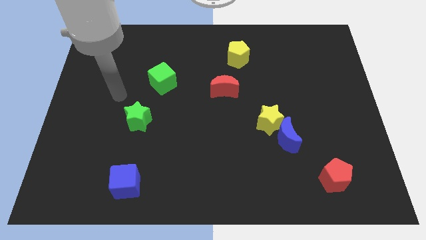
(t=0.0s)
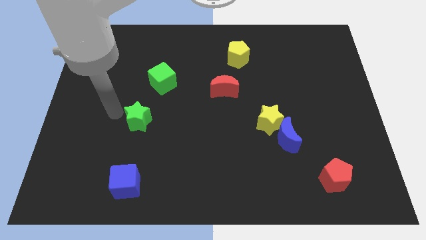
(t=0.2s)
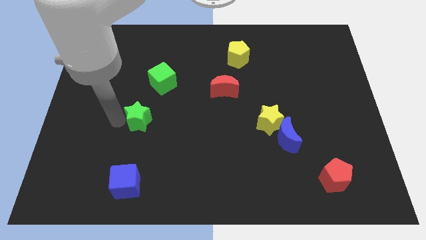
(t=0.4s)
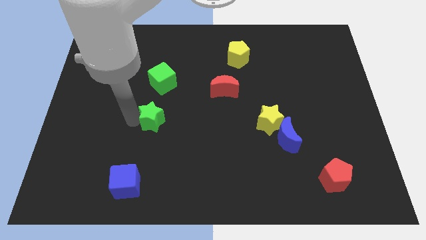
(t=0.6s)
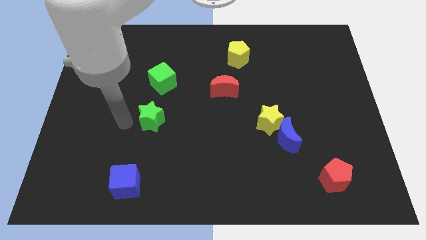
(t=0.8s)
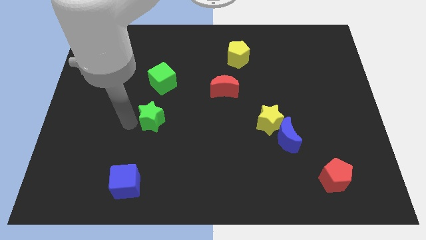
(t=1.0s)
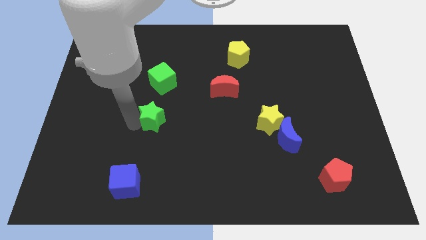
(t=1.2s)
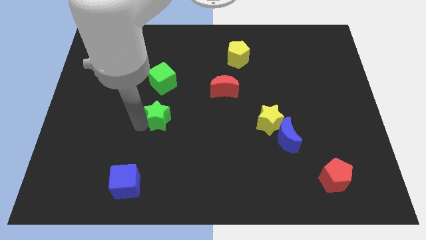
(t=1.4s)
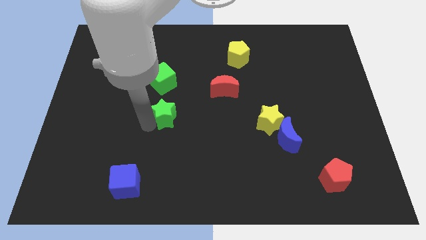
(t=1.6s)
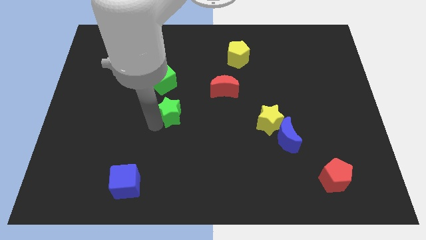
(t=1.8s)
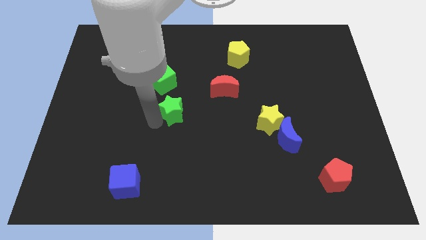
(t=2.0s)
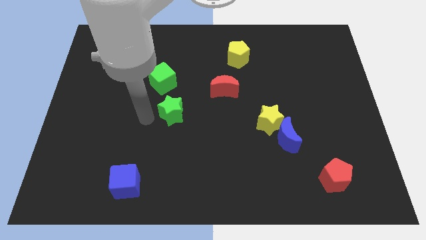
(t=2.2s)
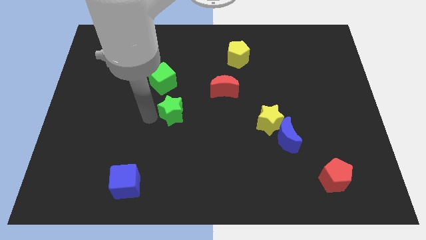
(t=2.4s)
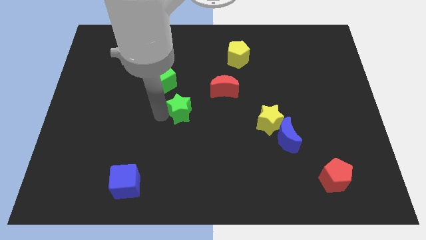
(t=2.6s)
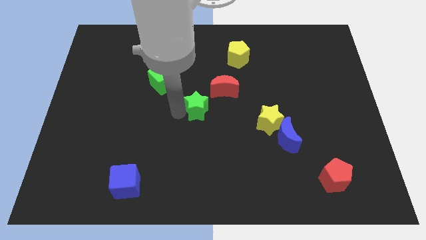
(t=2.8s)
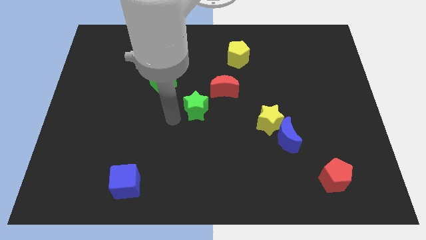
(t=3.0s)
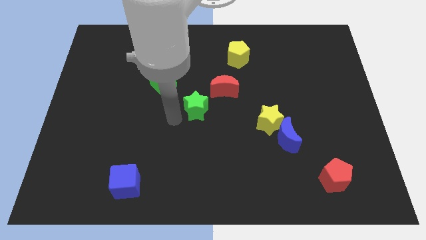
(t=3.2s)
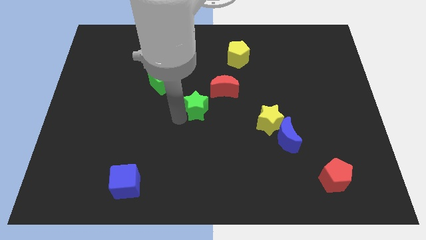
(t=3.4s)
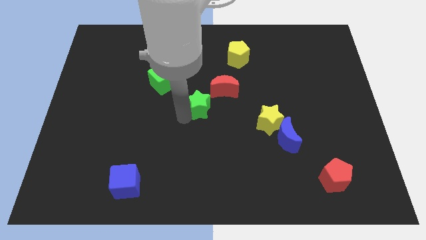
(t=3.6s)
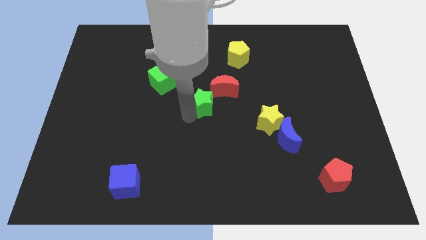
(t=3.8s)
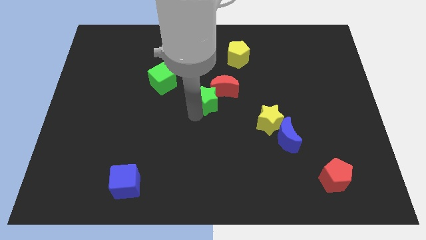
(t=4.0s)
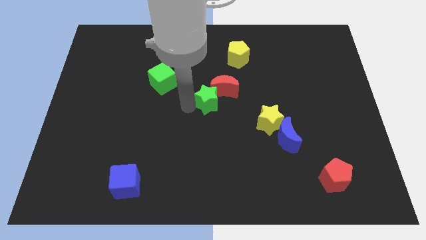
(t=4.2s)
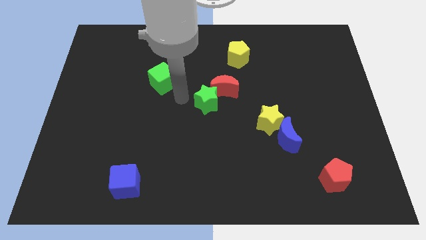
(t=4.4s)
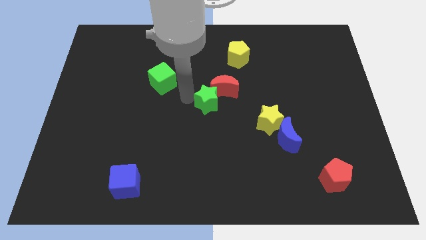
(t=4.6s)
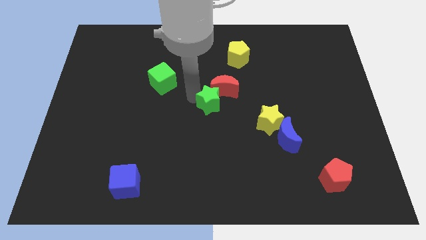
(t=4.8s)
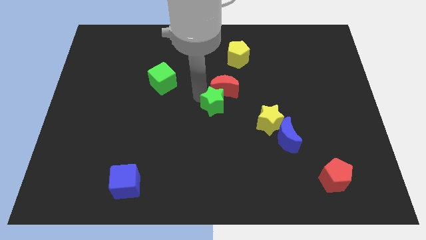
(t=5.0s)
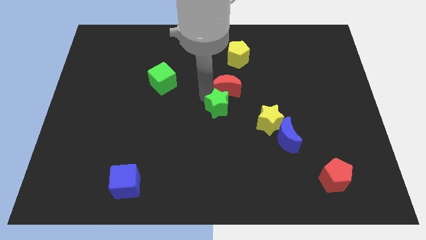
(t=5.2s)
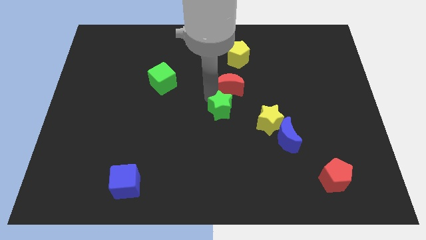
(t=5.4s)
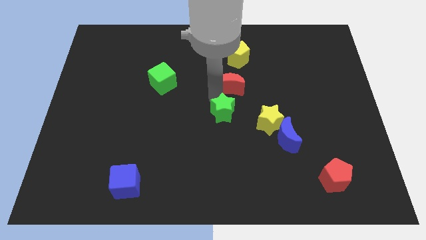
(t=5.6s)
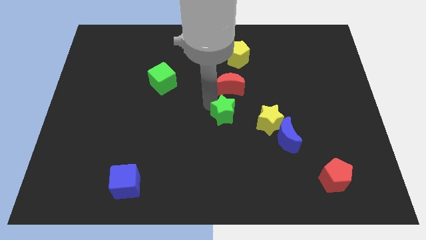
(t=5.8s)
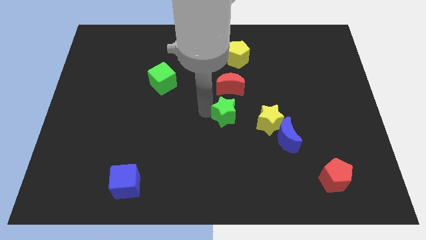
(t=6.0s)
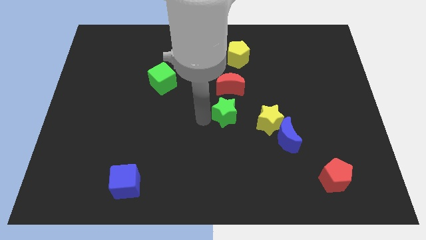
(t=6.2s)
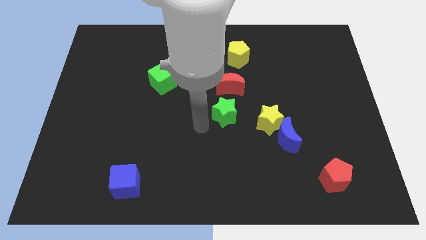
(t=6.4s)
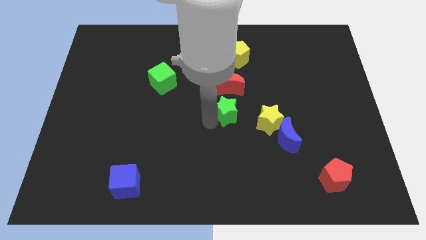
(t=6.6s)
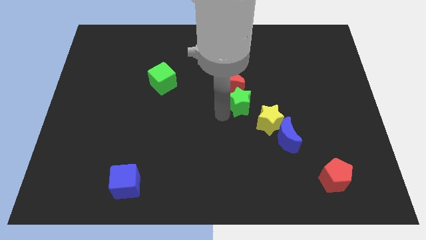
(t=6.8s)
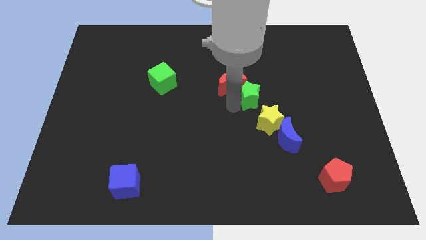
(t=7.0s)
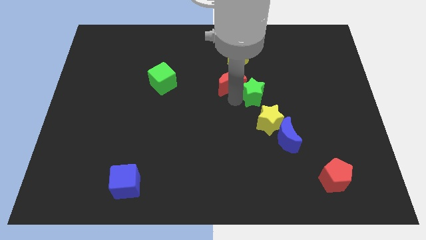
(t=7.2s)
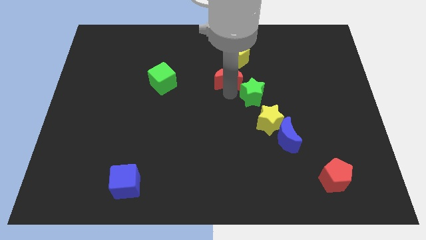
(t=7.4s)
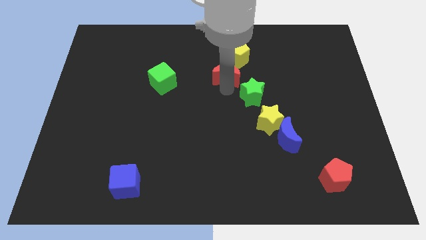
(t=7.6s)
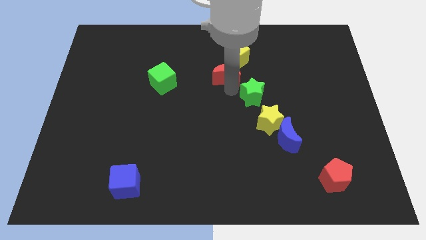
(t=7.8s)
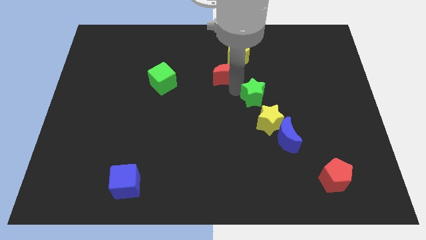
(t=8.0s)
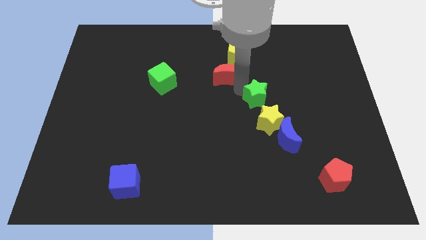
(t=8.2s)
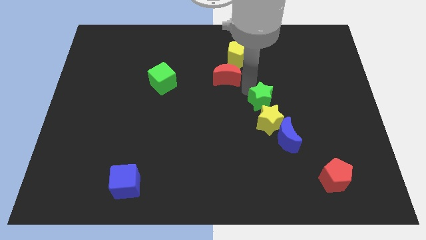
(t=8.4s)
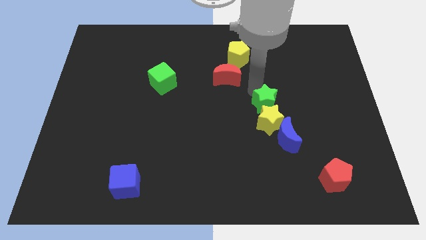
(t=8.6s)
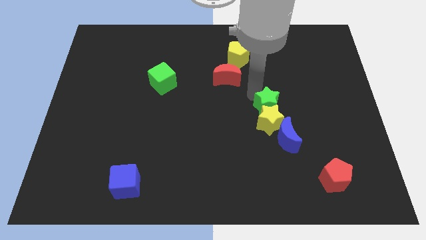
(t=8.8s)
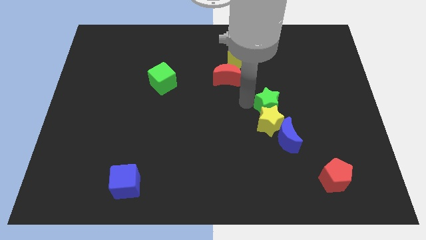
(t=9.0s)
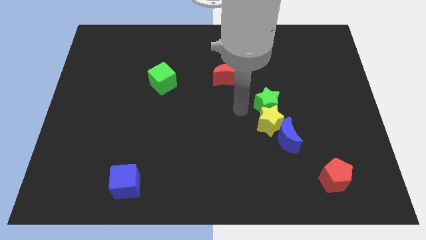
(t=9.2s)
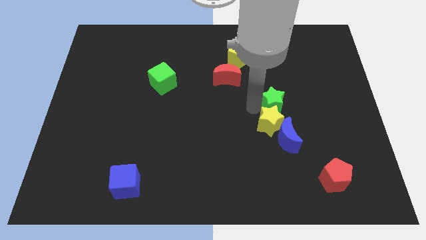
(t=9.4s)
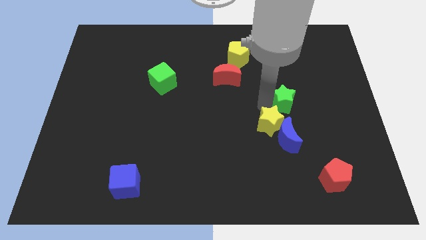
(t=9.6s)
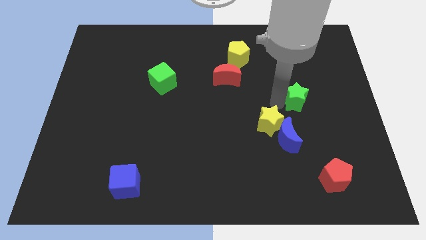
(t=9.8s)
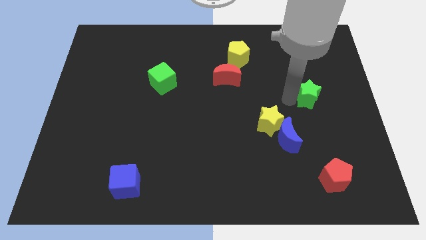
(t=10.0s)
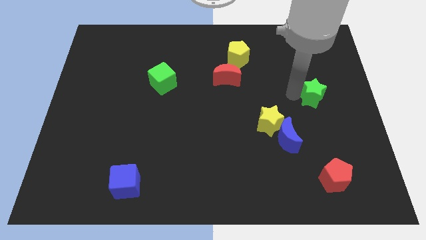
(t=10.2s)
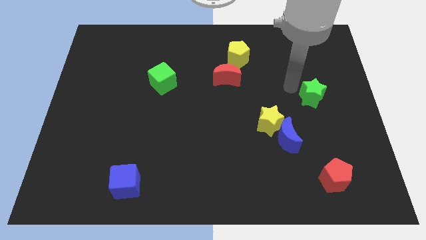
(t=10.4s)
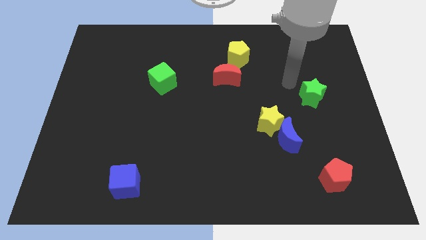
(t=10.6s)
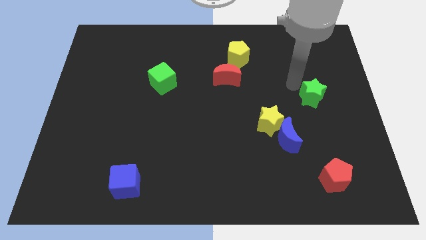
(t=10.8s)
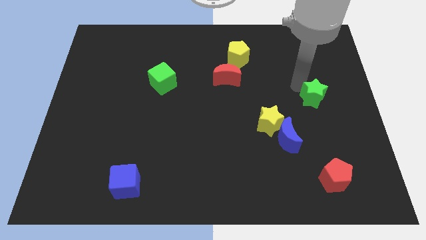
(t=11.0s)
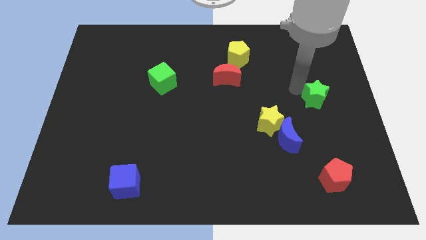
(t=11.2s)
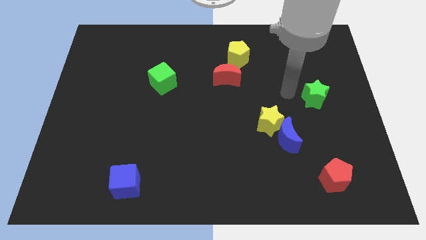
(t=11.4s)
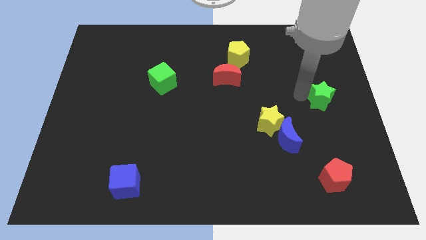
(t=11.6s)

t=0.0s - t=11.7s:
slide the green star to the right side

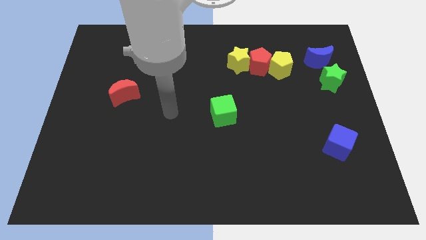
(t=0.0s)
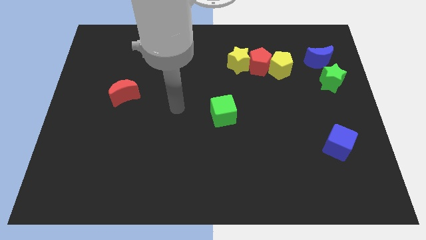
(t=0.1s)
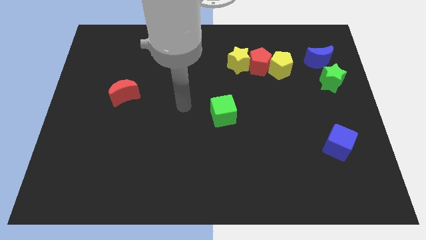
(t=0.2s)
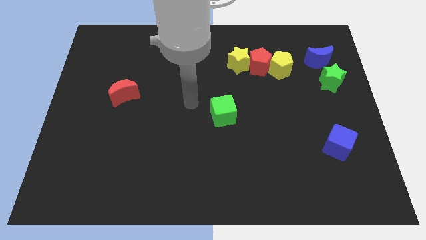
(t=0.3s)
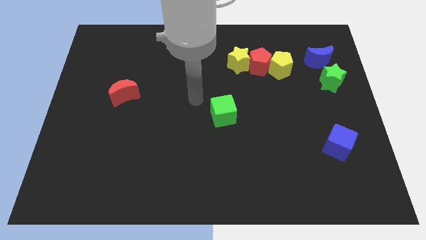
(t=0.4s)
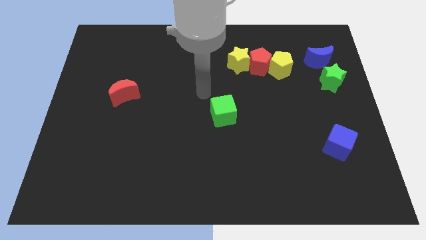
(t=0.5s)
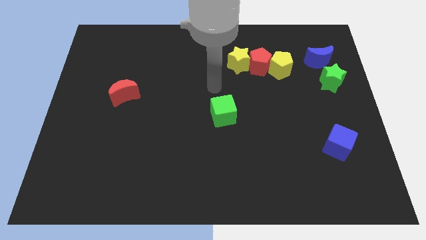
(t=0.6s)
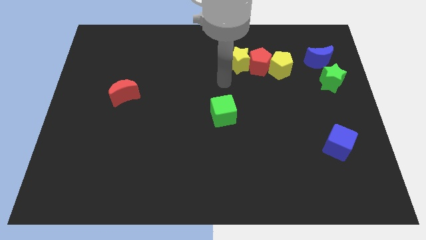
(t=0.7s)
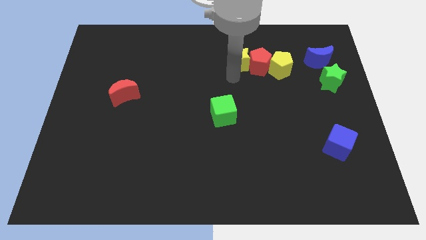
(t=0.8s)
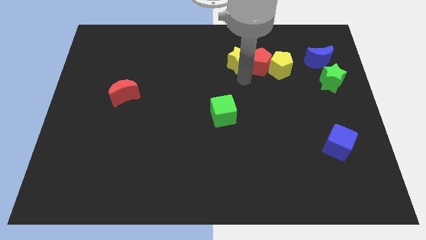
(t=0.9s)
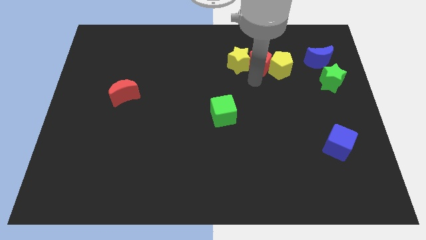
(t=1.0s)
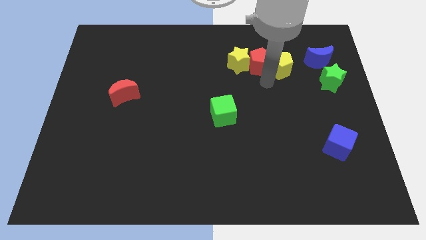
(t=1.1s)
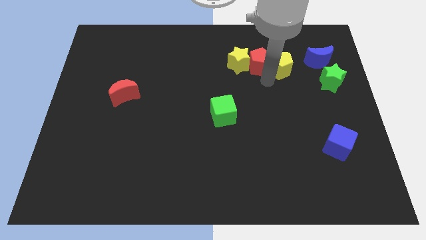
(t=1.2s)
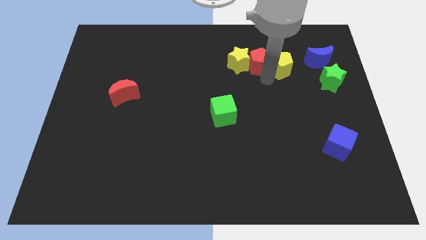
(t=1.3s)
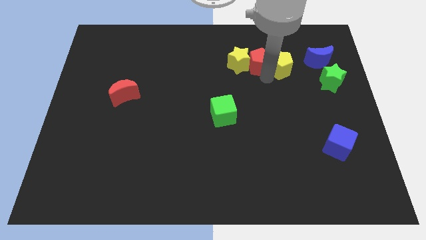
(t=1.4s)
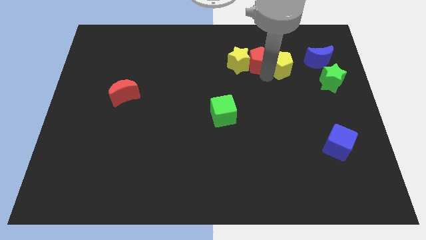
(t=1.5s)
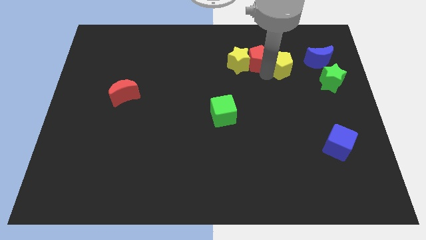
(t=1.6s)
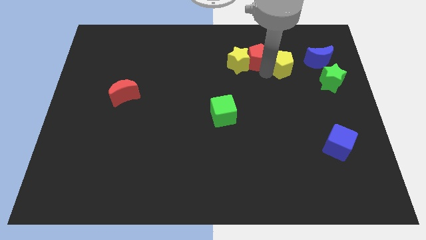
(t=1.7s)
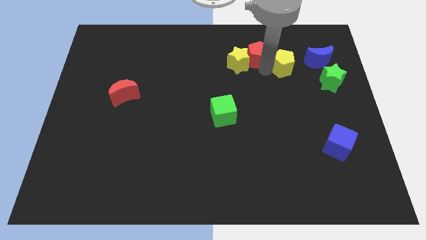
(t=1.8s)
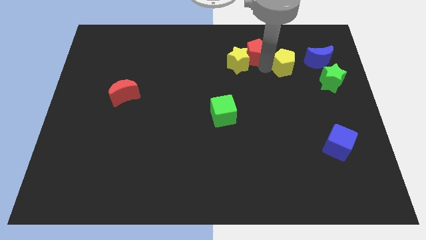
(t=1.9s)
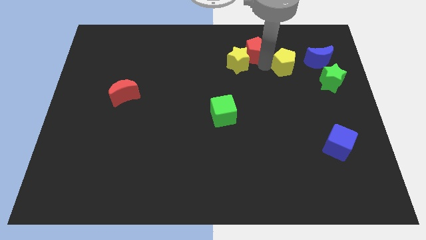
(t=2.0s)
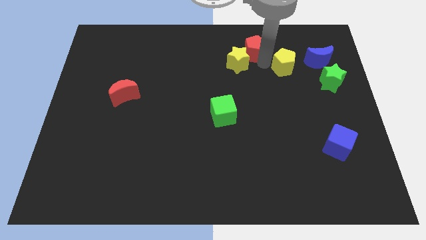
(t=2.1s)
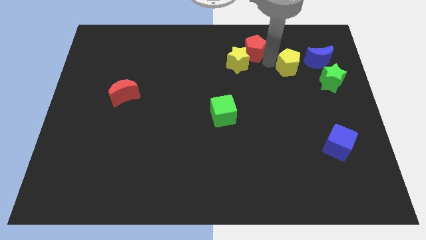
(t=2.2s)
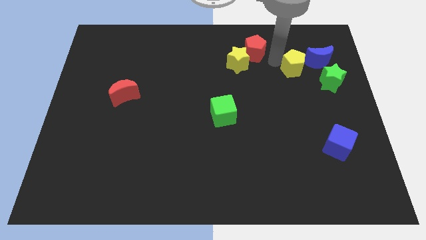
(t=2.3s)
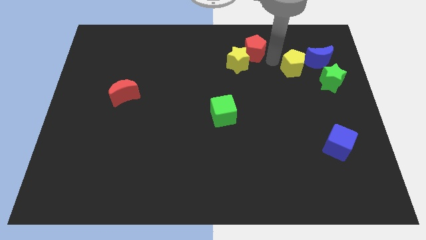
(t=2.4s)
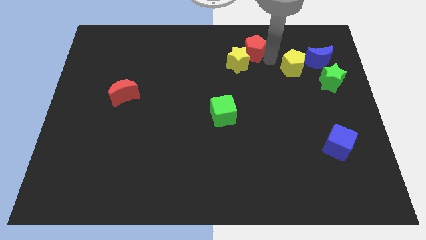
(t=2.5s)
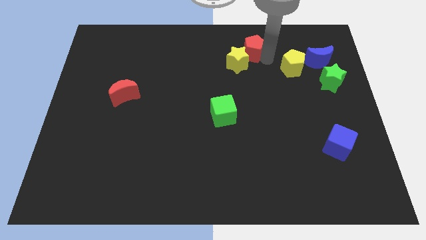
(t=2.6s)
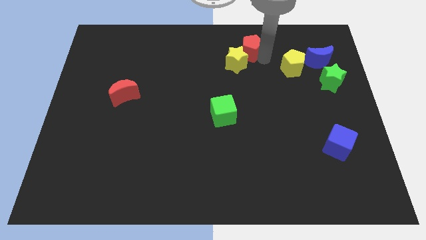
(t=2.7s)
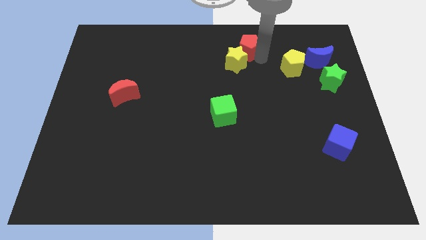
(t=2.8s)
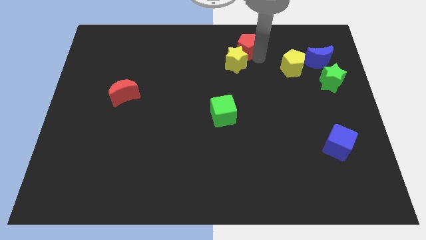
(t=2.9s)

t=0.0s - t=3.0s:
move the red pentagon to the top
